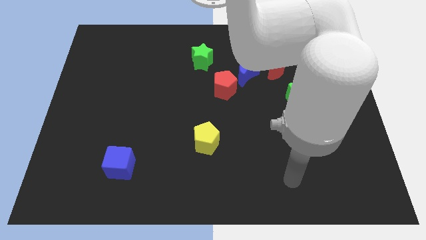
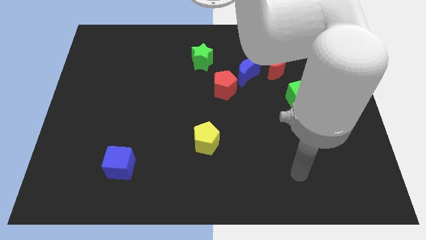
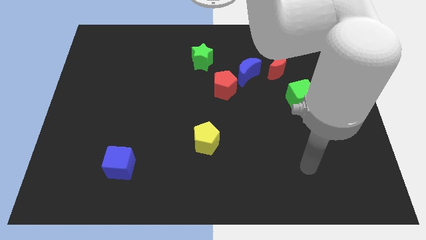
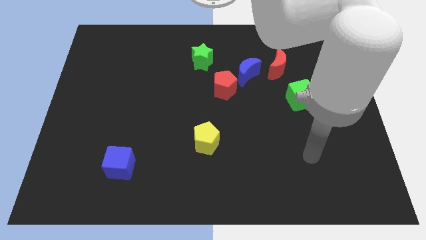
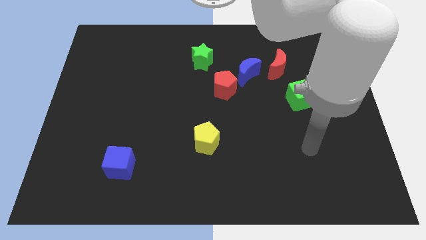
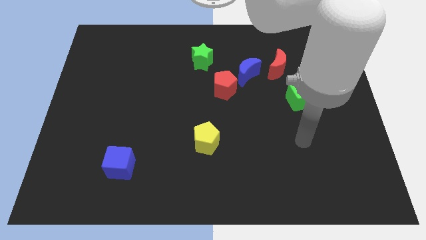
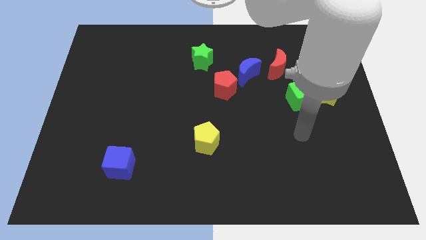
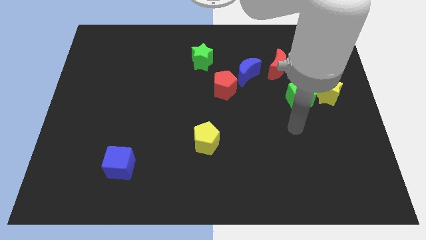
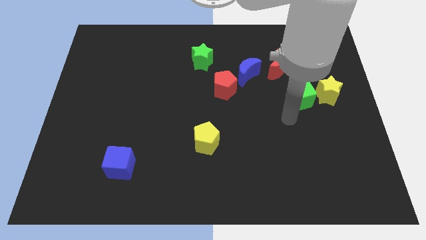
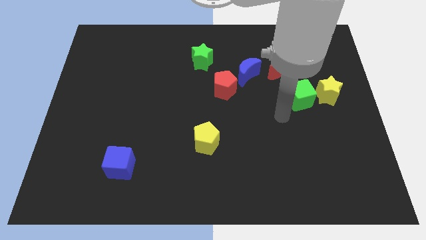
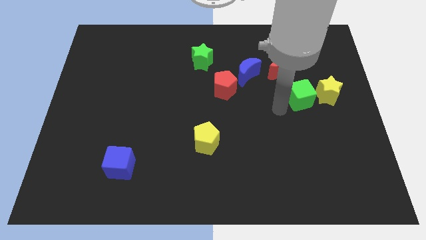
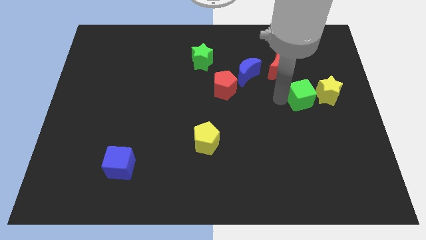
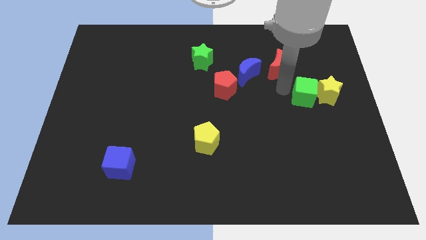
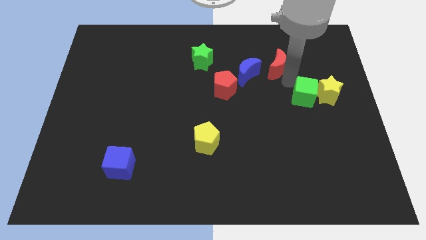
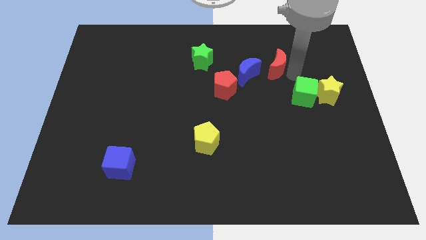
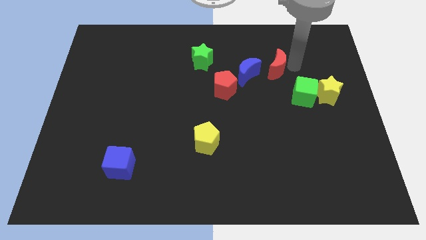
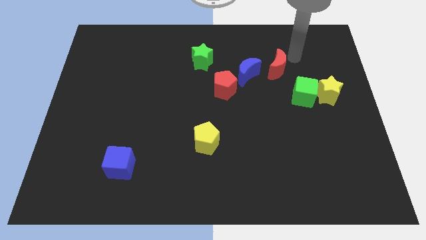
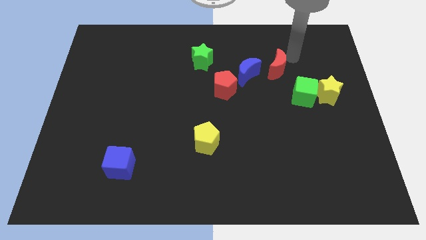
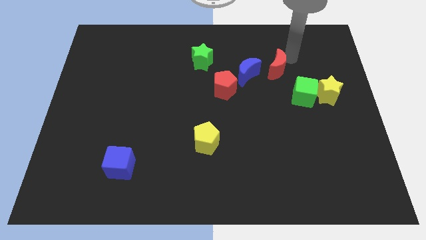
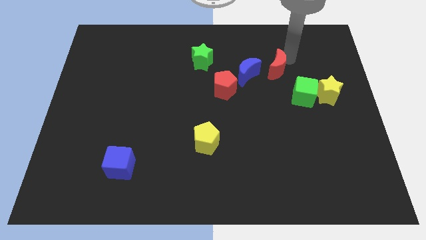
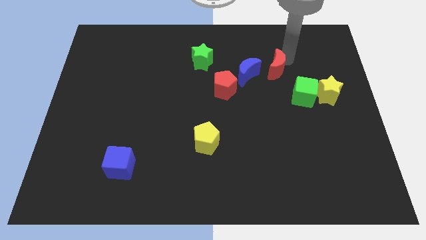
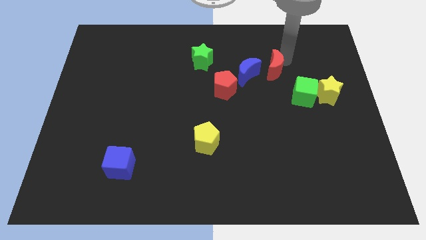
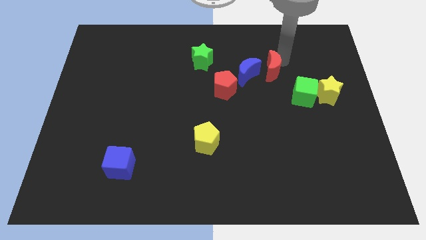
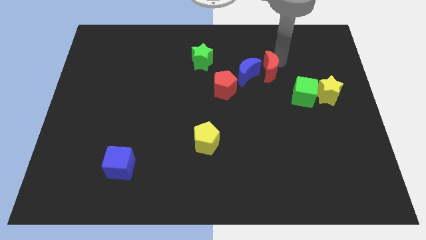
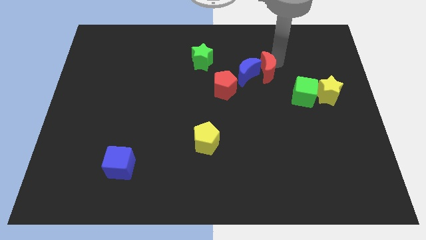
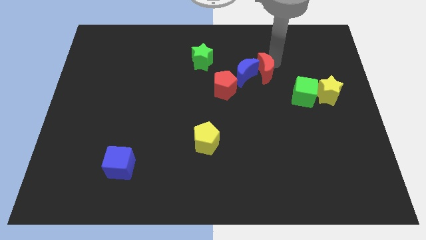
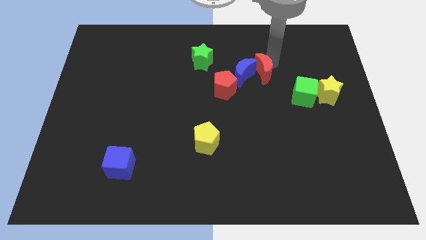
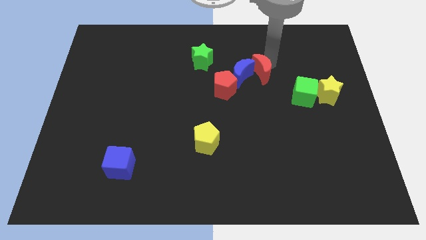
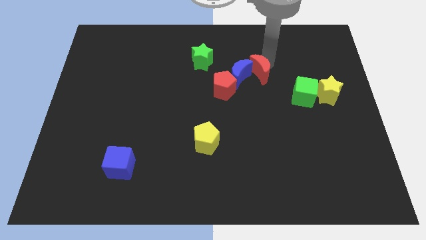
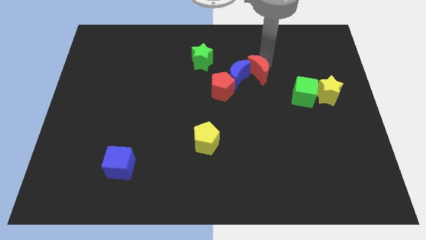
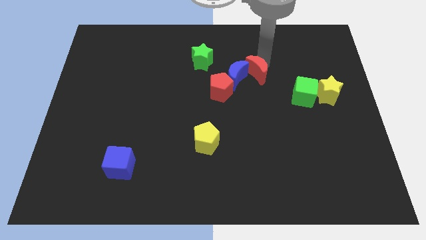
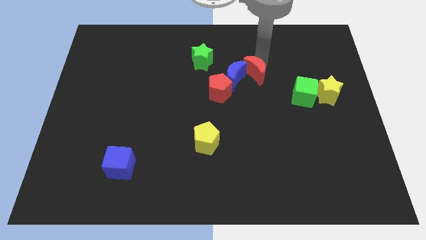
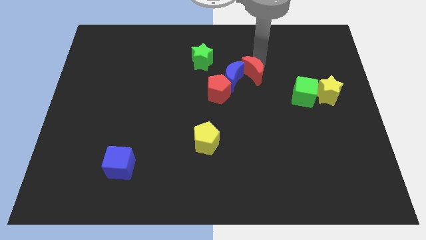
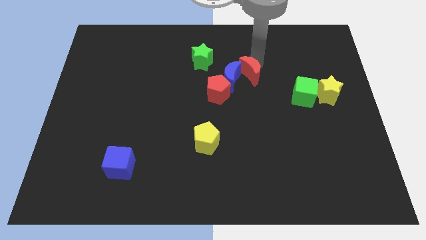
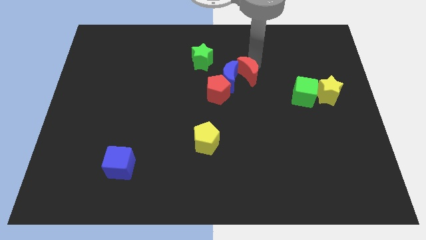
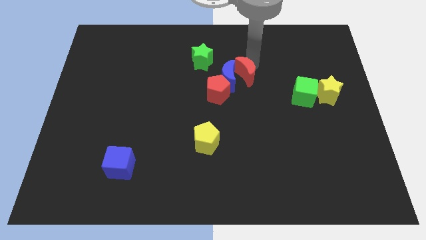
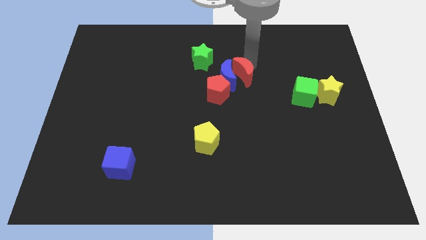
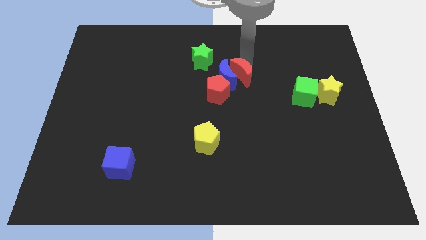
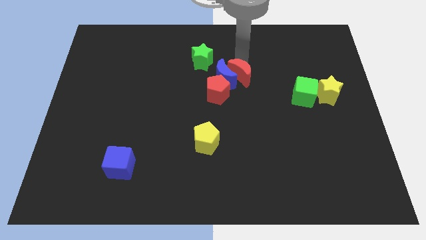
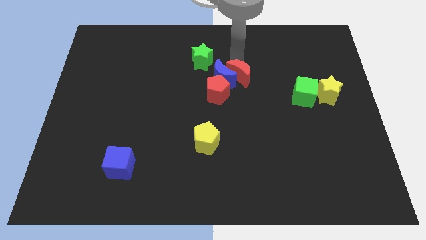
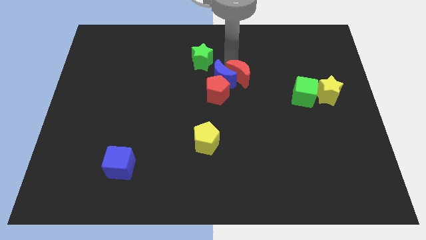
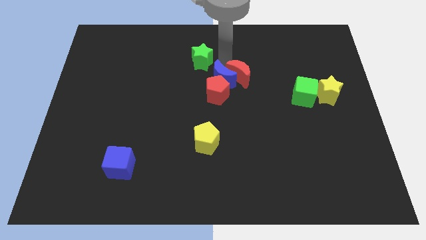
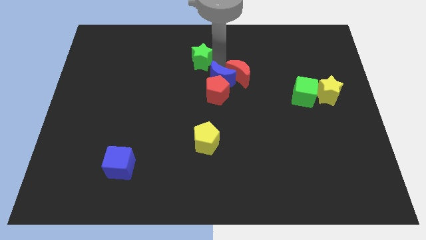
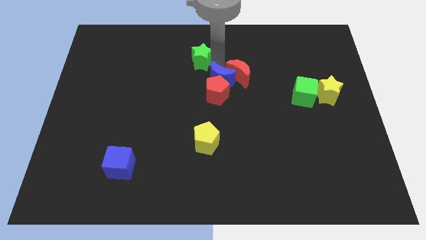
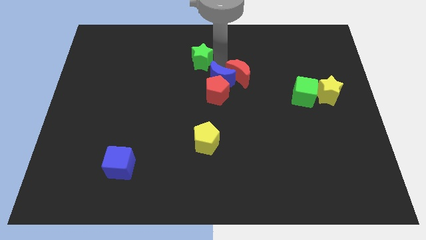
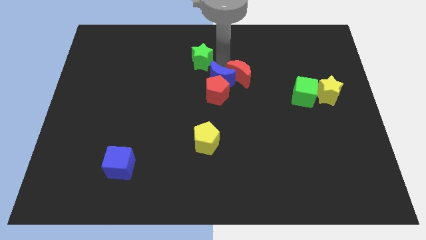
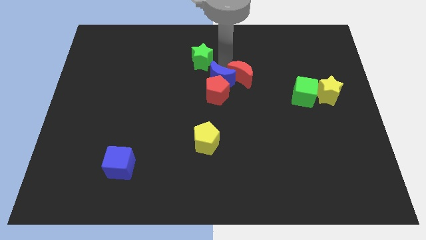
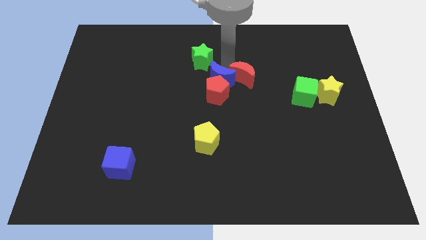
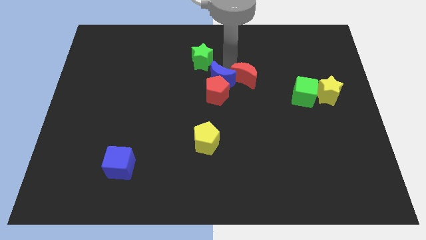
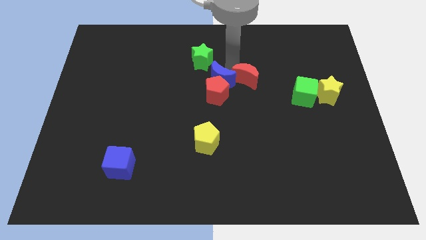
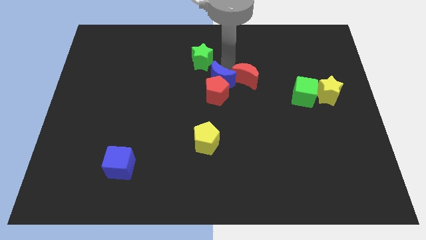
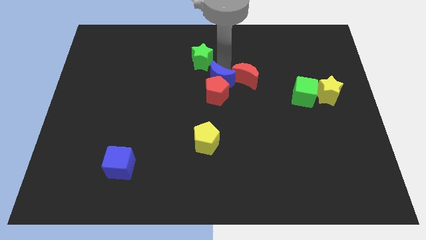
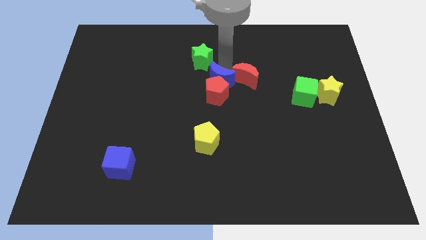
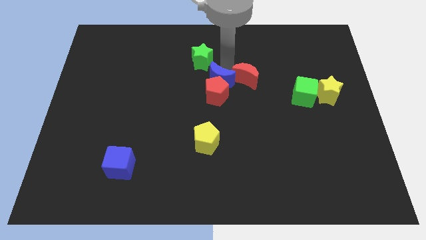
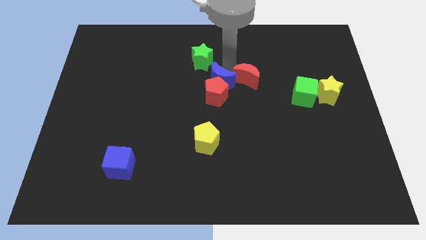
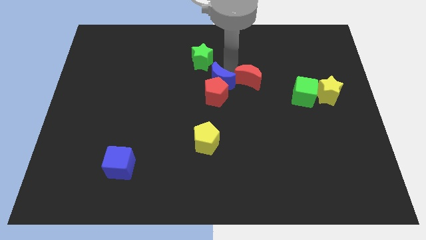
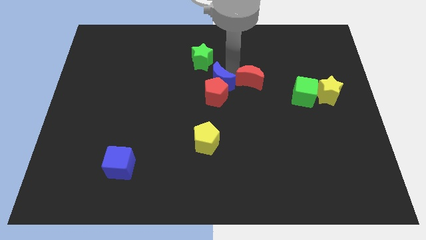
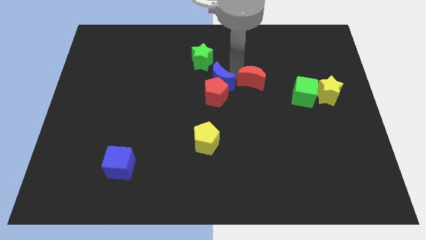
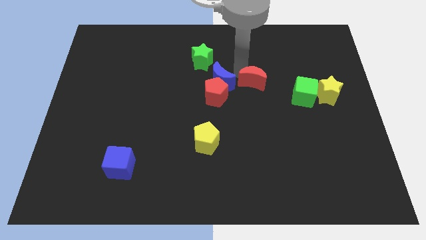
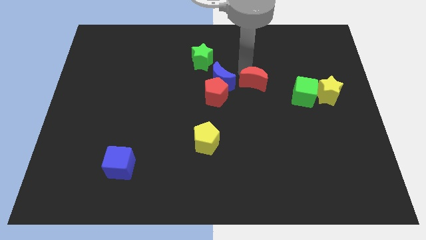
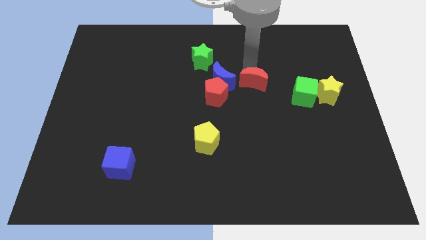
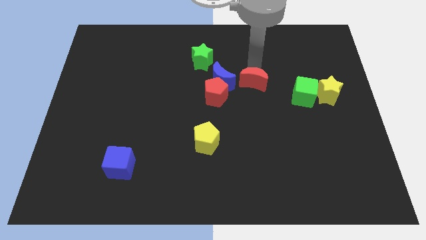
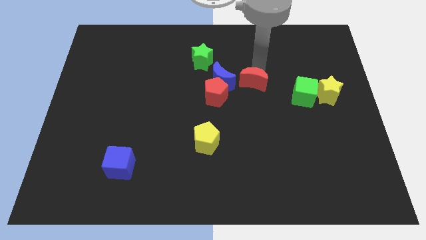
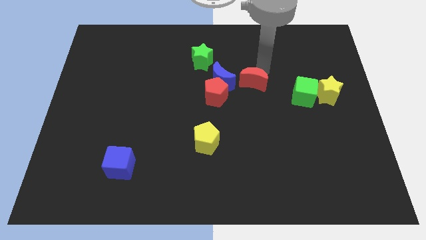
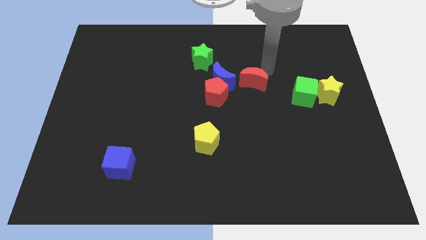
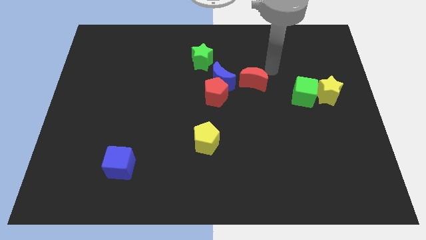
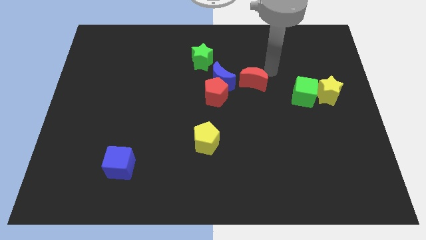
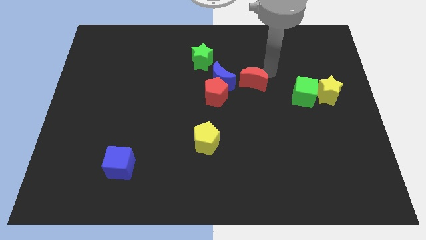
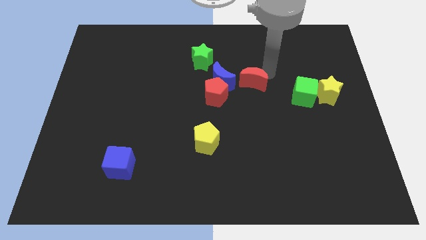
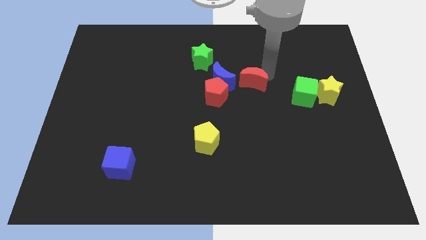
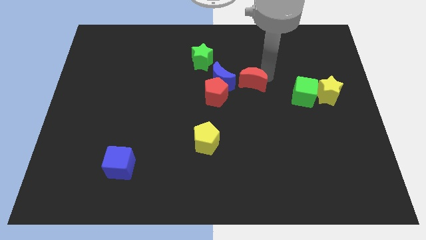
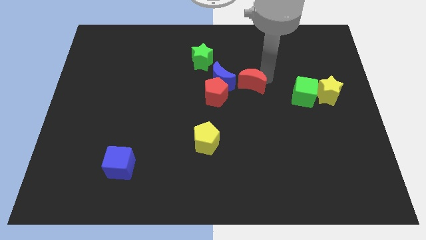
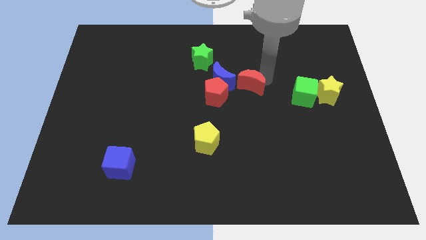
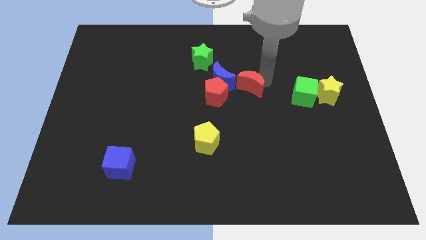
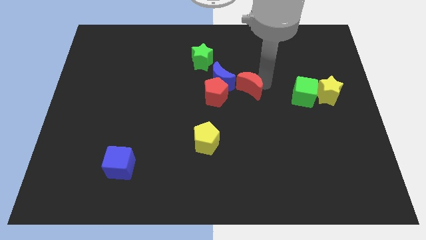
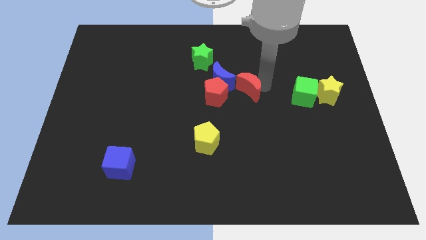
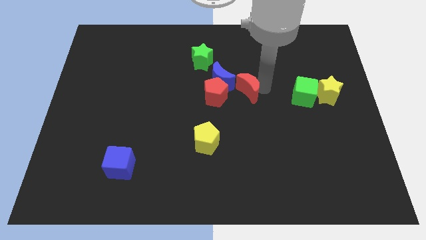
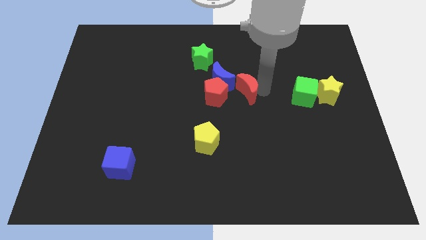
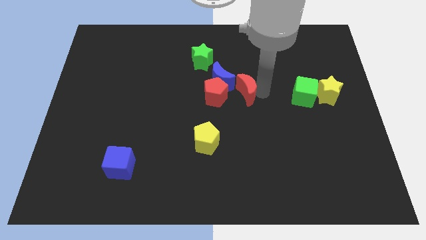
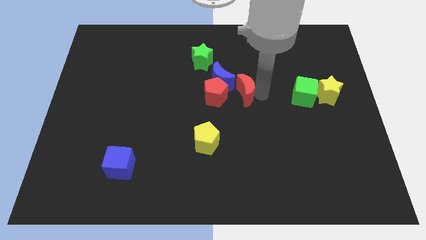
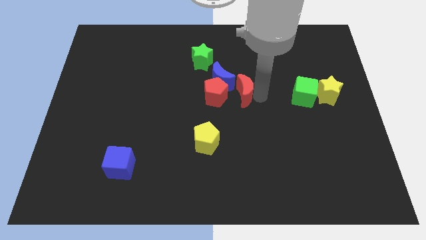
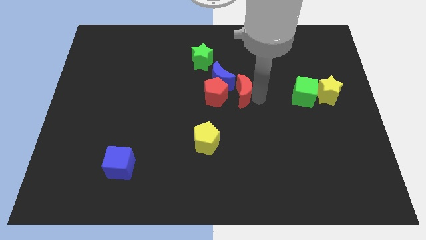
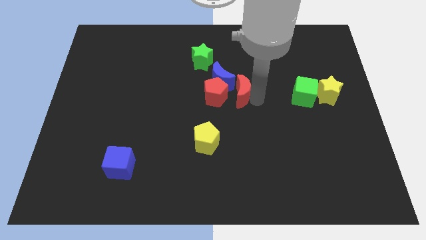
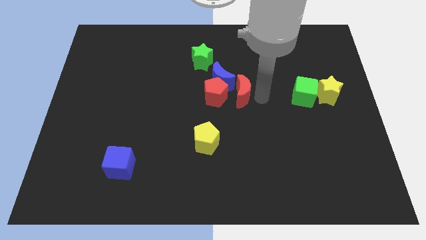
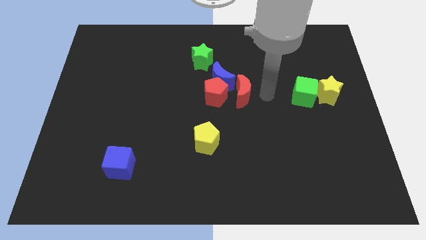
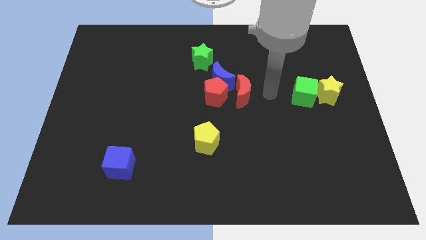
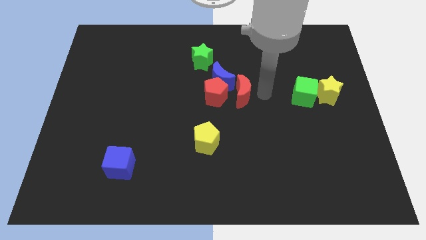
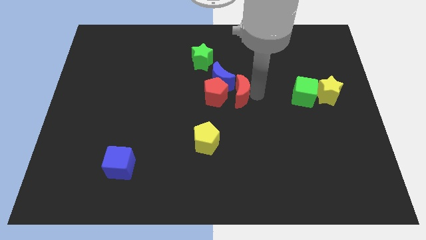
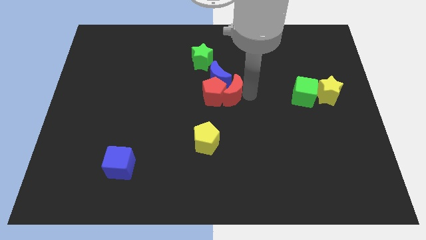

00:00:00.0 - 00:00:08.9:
slide the red moon close to the red pentagon
